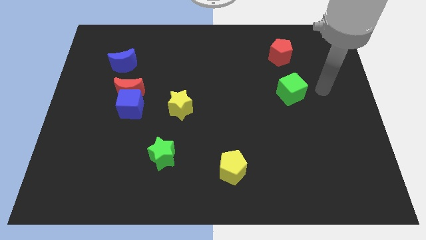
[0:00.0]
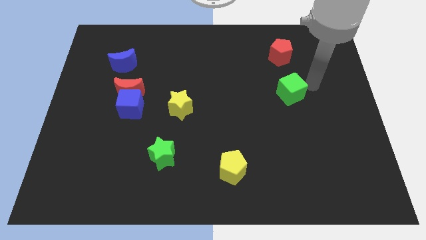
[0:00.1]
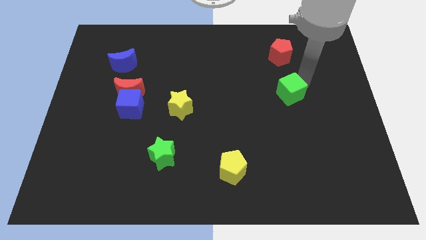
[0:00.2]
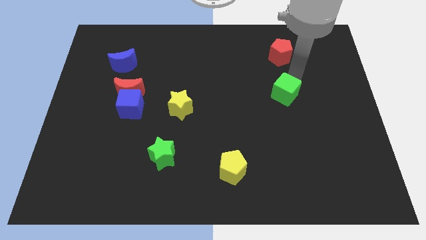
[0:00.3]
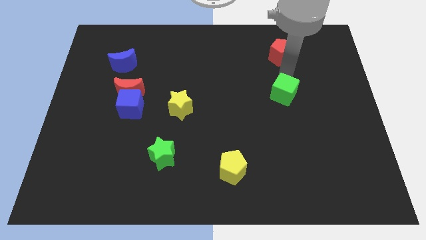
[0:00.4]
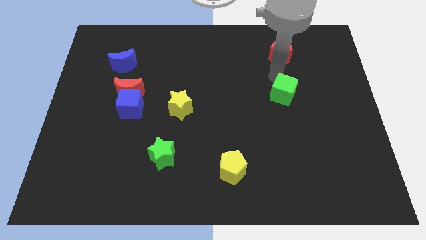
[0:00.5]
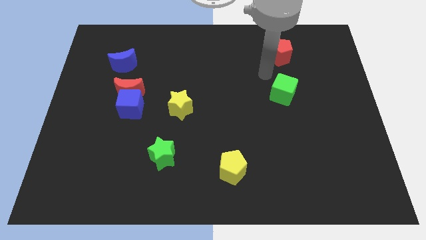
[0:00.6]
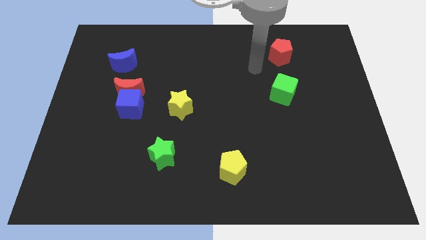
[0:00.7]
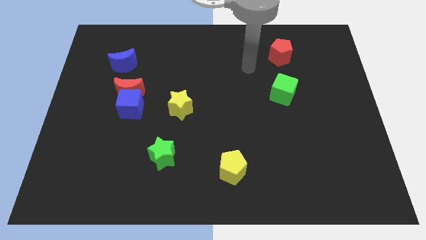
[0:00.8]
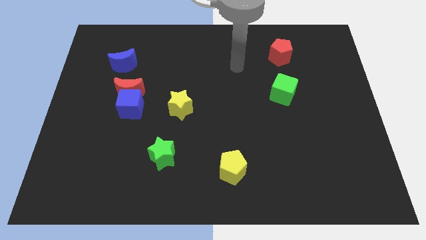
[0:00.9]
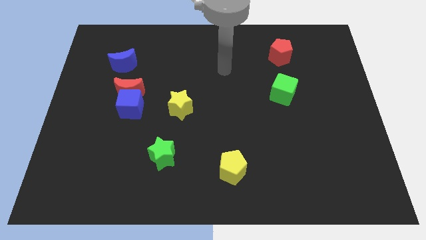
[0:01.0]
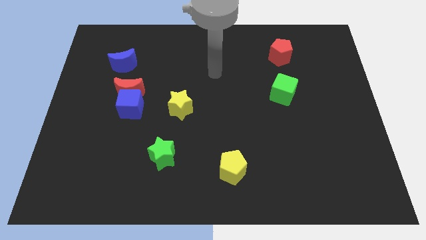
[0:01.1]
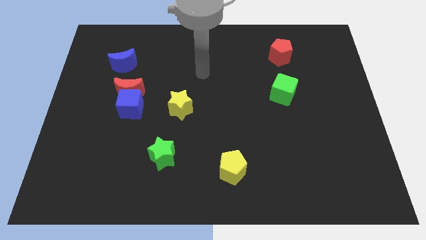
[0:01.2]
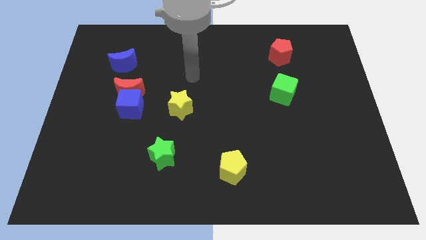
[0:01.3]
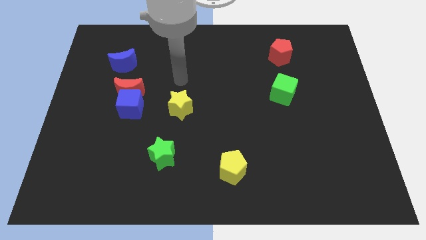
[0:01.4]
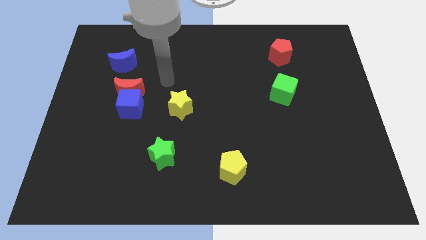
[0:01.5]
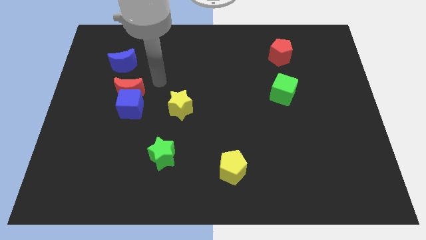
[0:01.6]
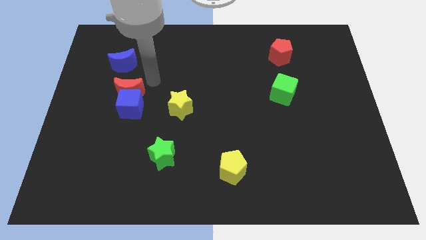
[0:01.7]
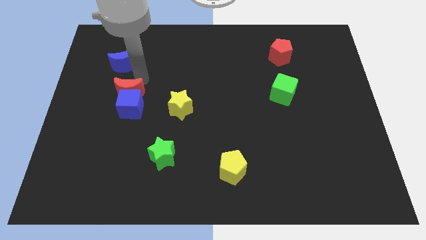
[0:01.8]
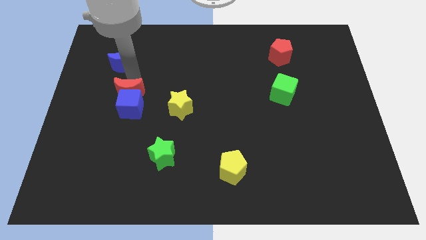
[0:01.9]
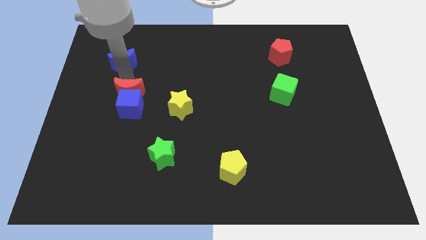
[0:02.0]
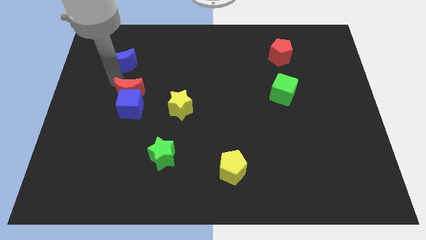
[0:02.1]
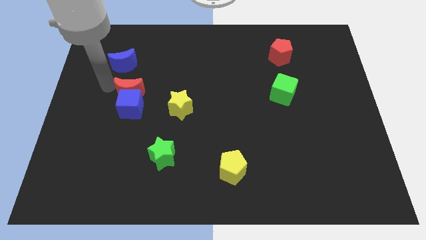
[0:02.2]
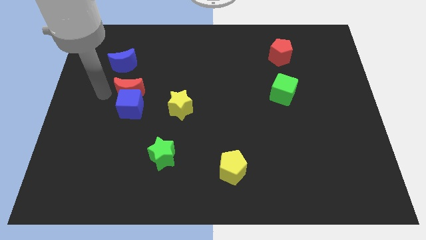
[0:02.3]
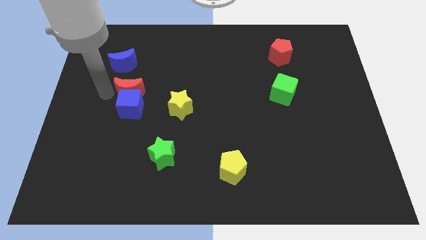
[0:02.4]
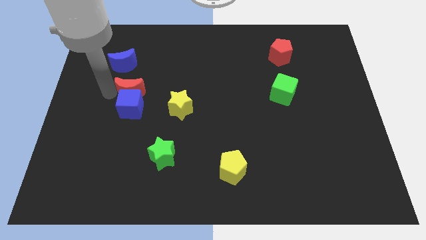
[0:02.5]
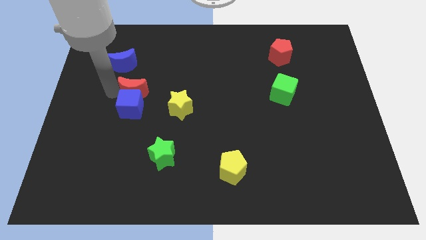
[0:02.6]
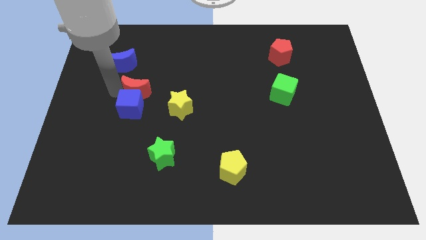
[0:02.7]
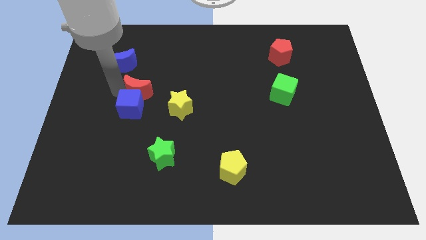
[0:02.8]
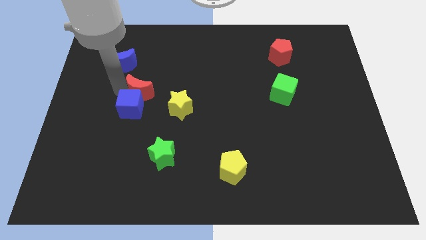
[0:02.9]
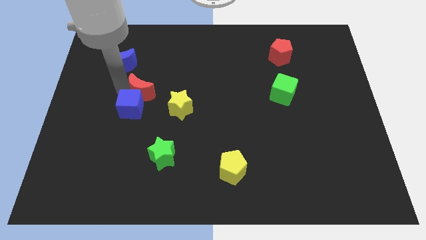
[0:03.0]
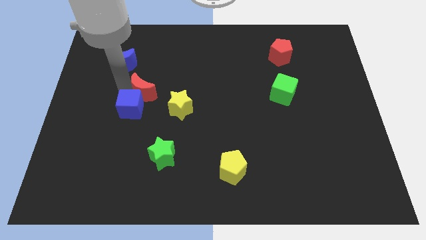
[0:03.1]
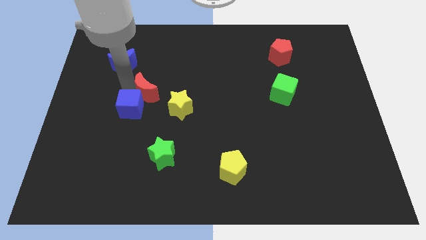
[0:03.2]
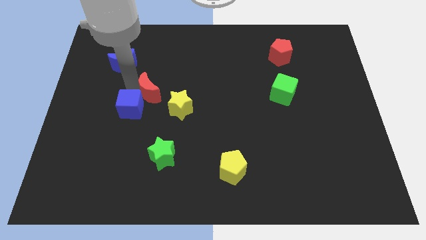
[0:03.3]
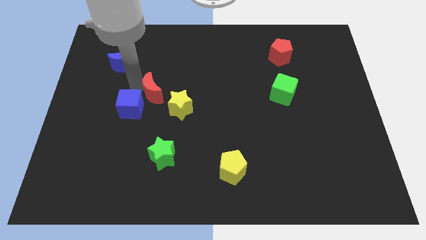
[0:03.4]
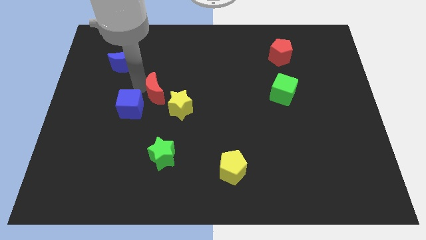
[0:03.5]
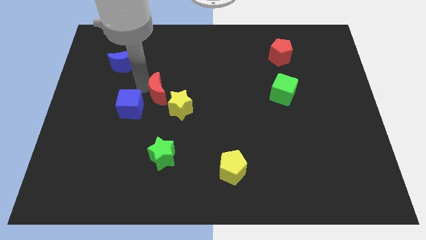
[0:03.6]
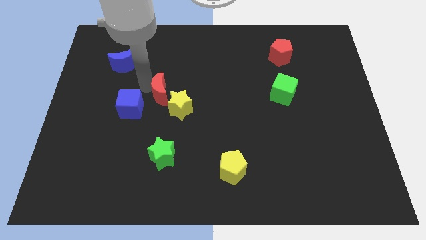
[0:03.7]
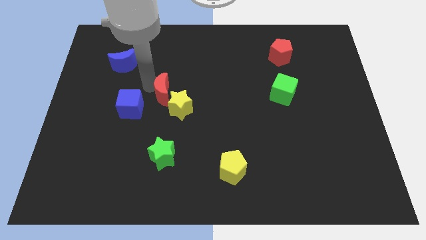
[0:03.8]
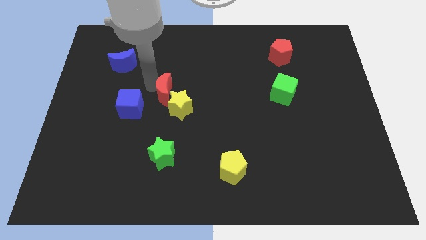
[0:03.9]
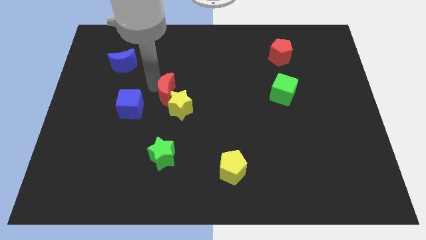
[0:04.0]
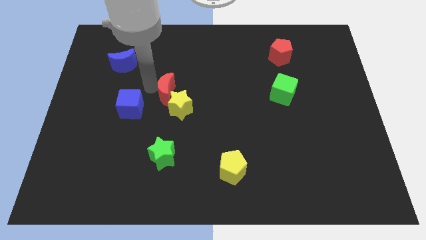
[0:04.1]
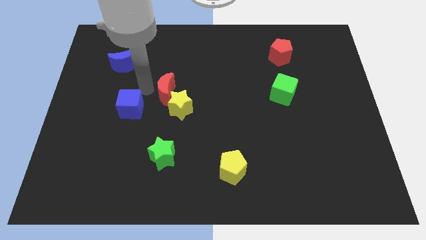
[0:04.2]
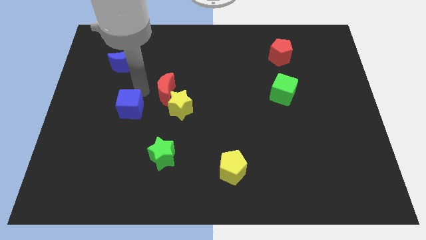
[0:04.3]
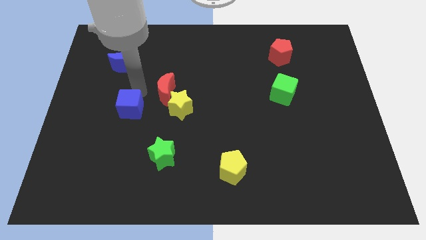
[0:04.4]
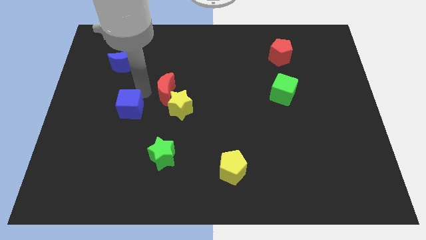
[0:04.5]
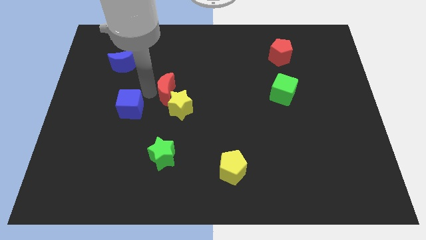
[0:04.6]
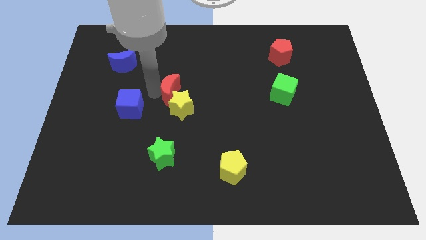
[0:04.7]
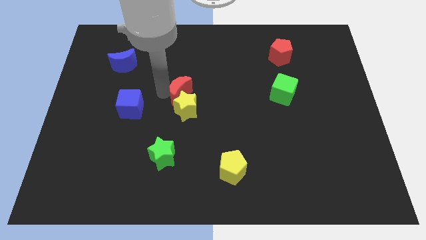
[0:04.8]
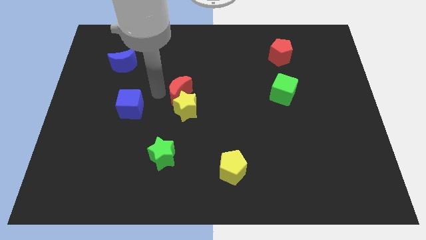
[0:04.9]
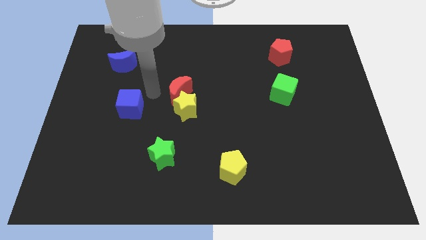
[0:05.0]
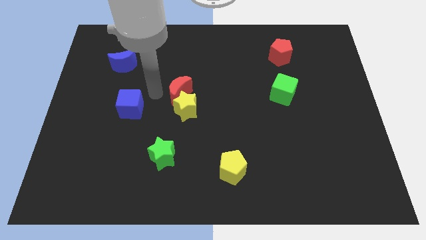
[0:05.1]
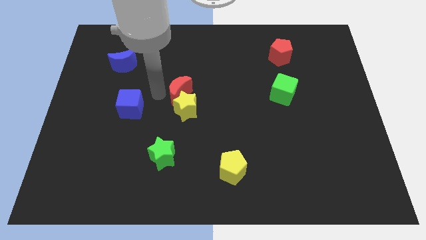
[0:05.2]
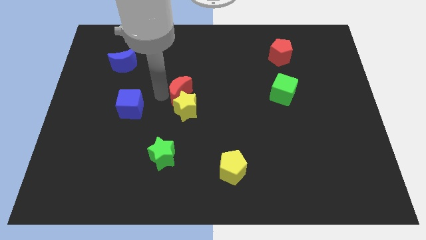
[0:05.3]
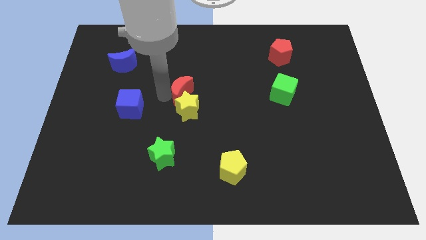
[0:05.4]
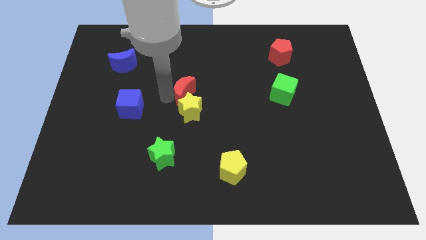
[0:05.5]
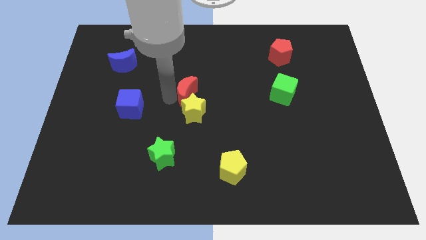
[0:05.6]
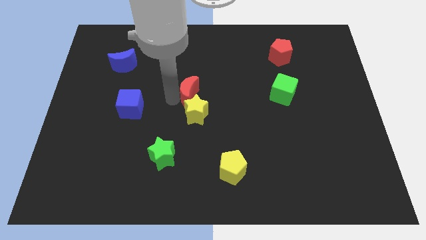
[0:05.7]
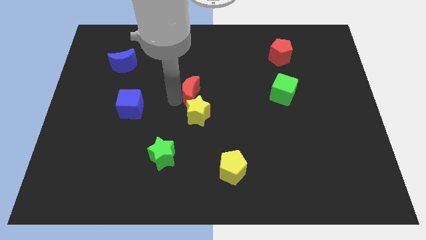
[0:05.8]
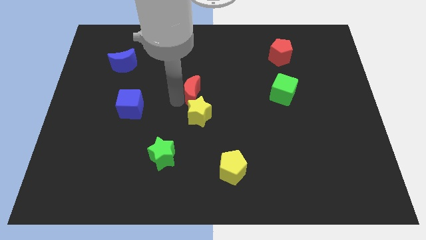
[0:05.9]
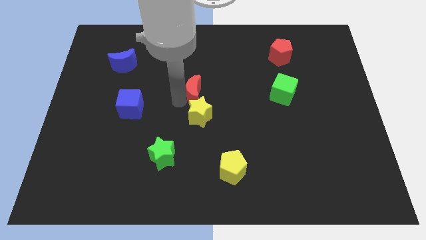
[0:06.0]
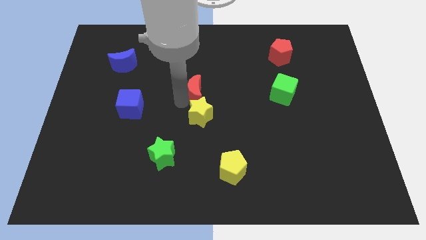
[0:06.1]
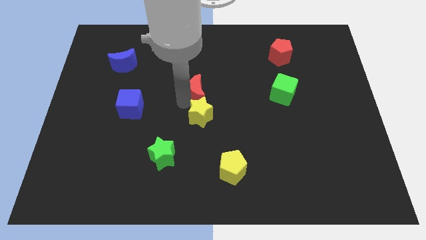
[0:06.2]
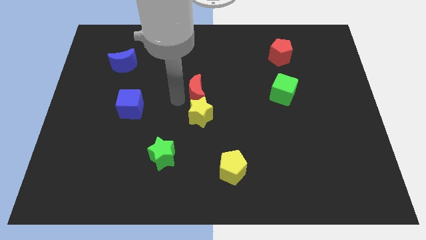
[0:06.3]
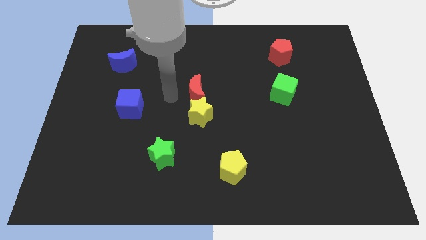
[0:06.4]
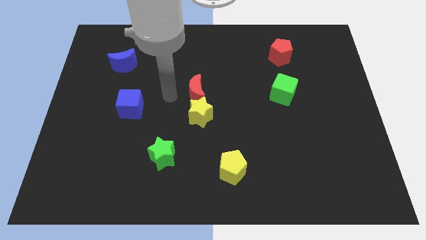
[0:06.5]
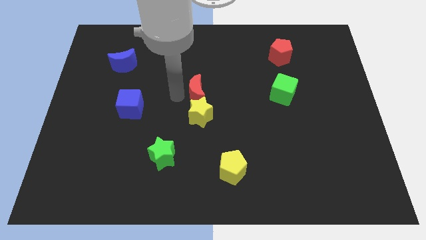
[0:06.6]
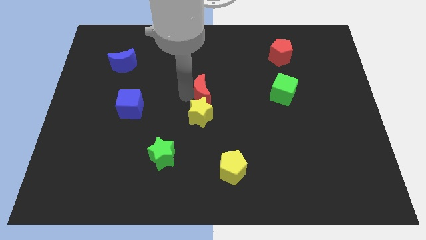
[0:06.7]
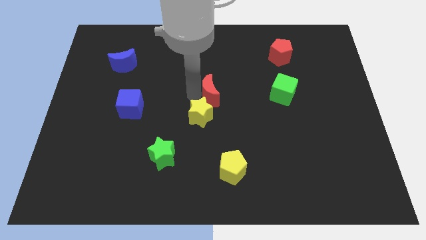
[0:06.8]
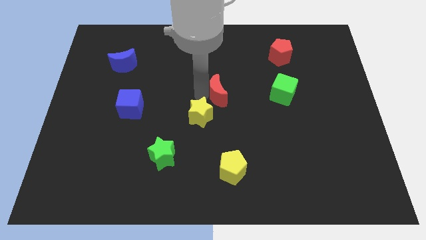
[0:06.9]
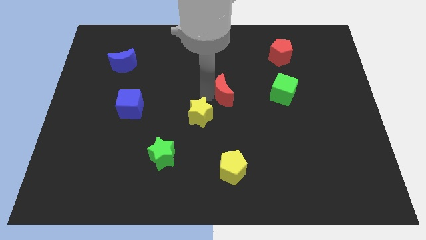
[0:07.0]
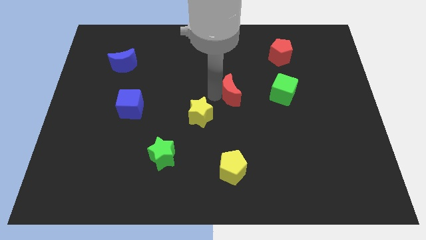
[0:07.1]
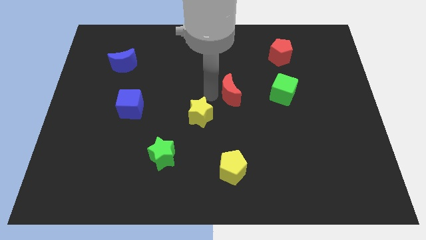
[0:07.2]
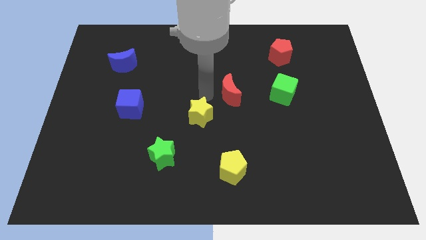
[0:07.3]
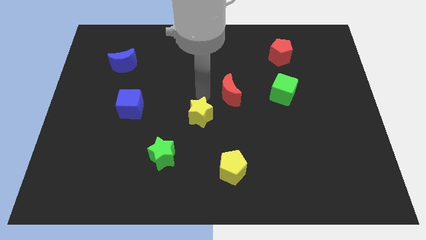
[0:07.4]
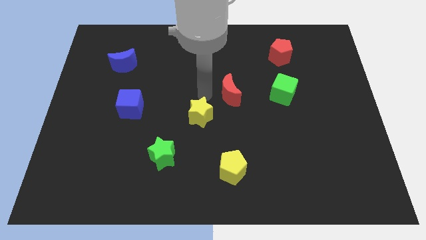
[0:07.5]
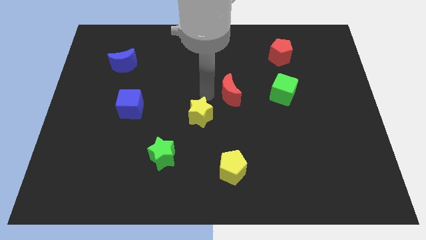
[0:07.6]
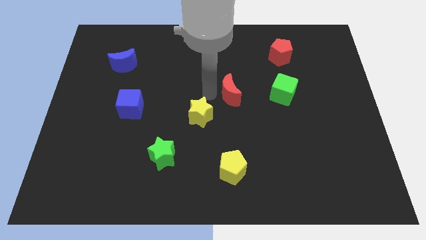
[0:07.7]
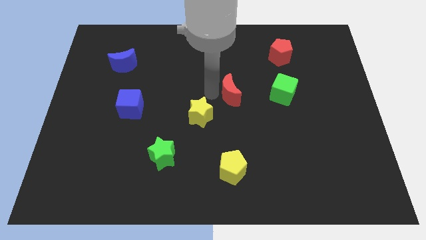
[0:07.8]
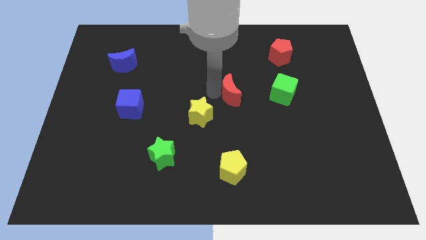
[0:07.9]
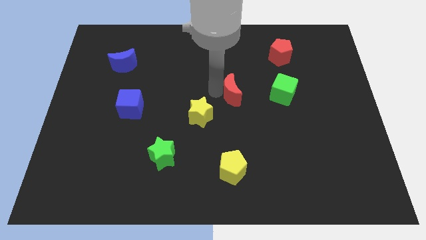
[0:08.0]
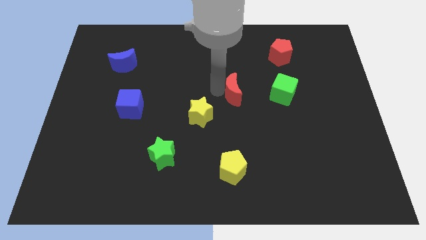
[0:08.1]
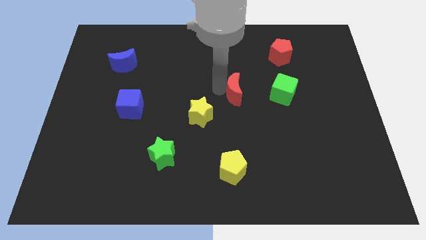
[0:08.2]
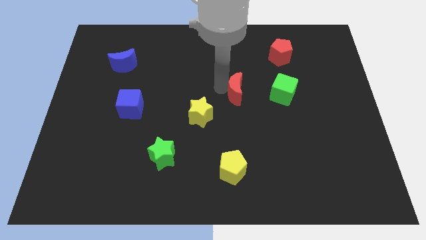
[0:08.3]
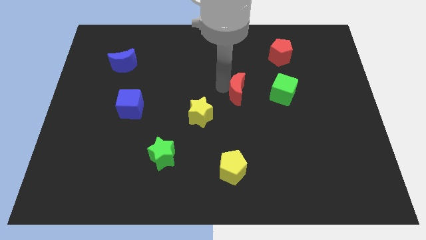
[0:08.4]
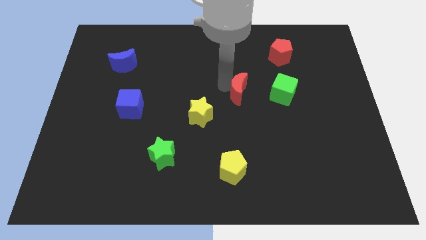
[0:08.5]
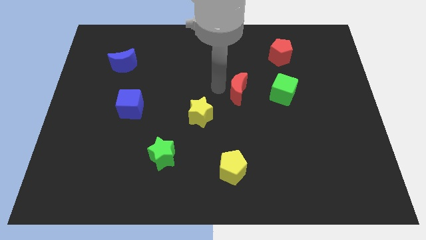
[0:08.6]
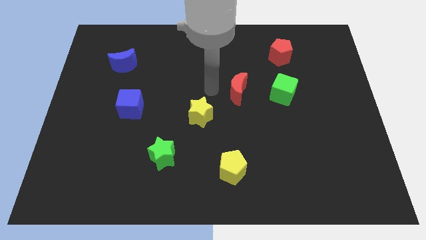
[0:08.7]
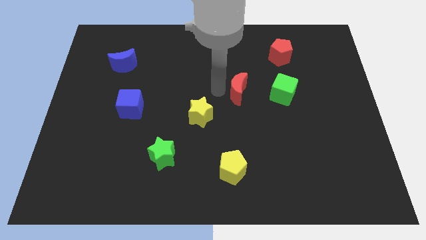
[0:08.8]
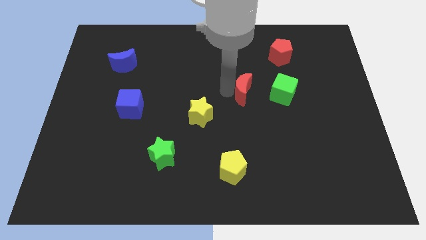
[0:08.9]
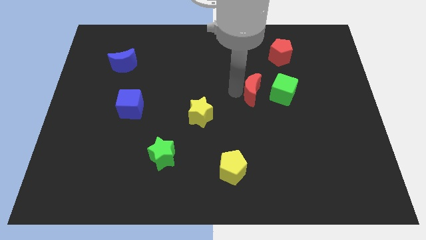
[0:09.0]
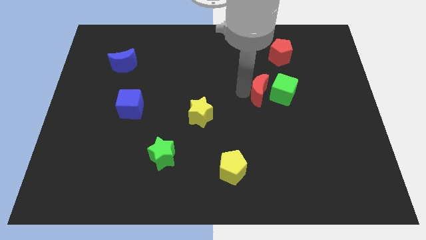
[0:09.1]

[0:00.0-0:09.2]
move the red moon close to the green cube
